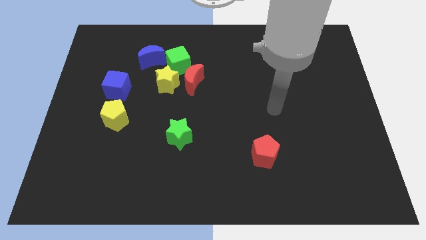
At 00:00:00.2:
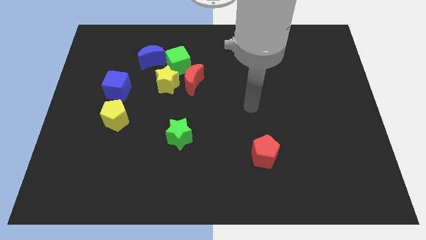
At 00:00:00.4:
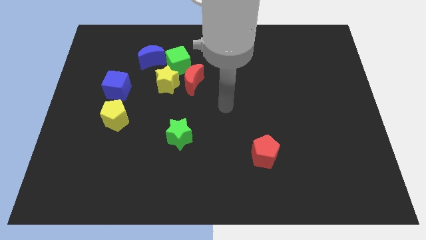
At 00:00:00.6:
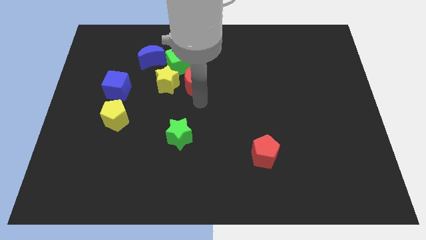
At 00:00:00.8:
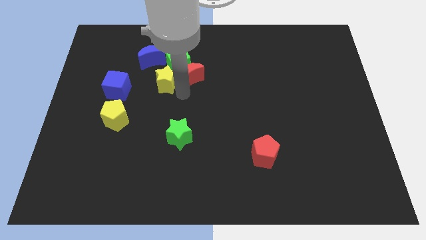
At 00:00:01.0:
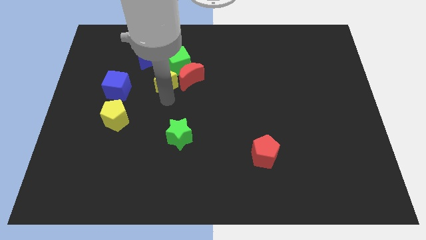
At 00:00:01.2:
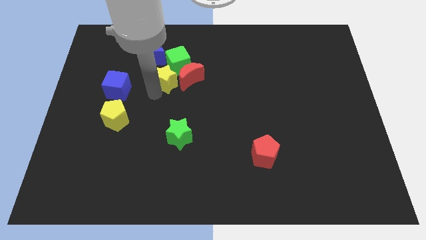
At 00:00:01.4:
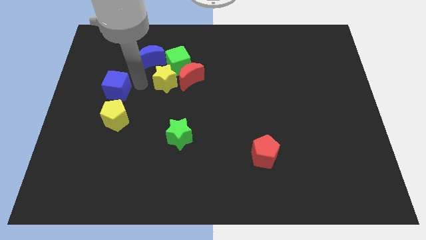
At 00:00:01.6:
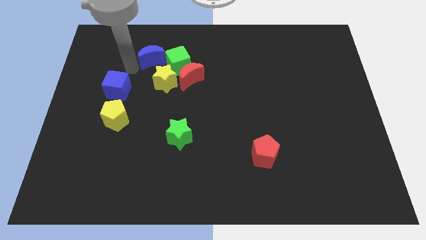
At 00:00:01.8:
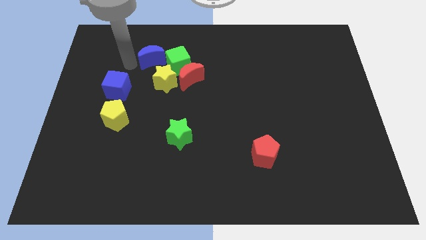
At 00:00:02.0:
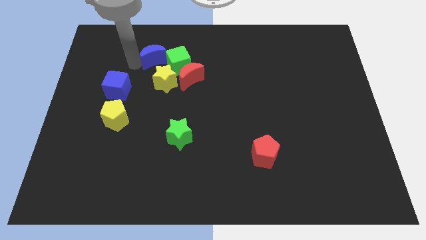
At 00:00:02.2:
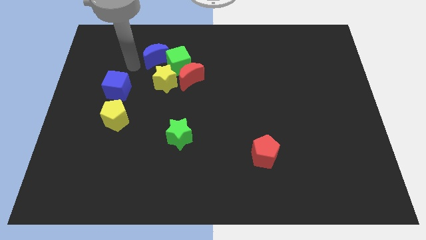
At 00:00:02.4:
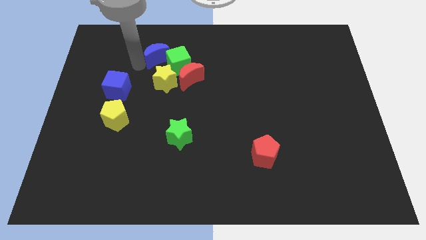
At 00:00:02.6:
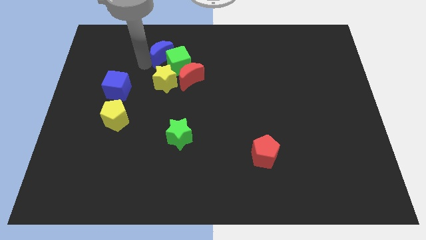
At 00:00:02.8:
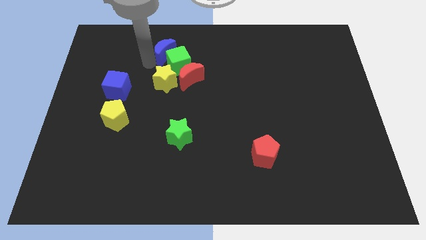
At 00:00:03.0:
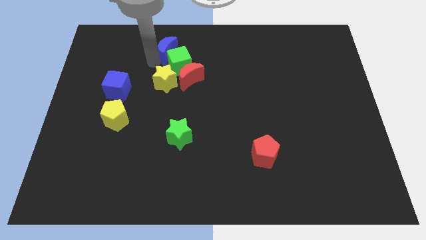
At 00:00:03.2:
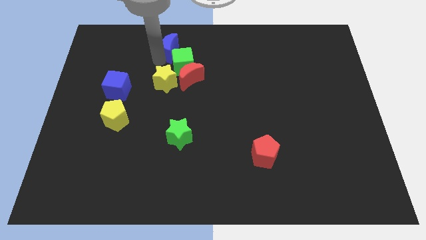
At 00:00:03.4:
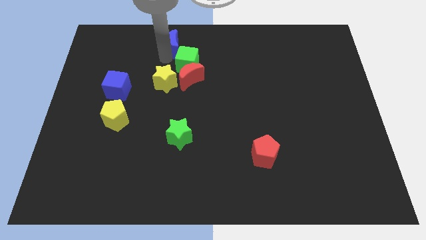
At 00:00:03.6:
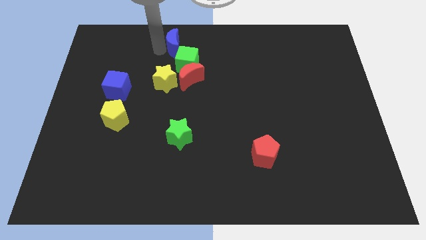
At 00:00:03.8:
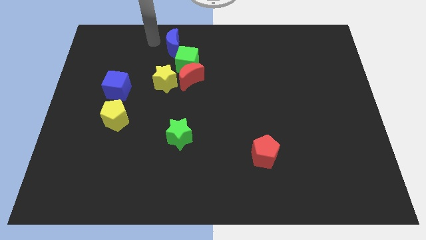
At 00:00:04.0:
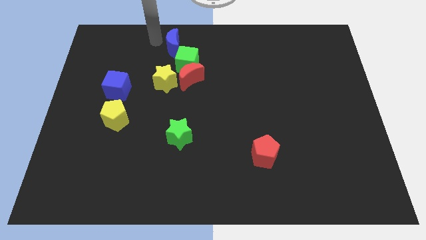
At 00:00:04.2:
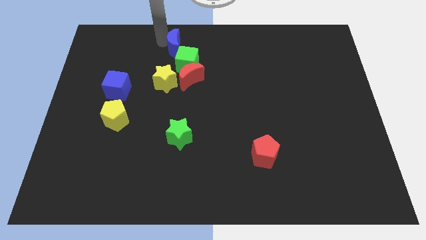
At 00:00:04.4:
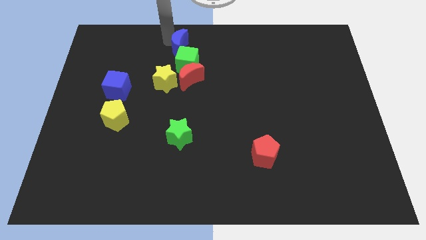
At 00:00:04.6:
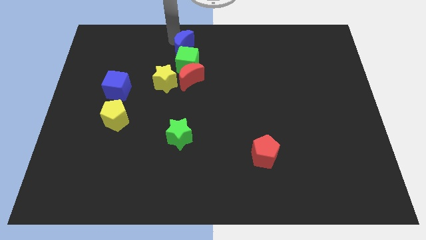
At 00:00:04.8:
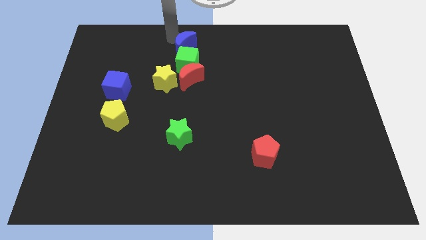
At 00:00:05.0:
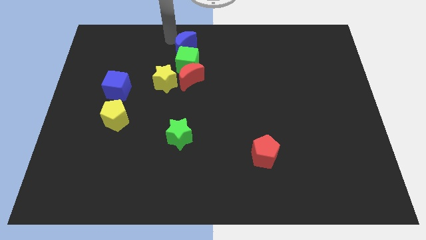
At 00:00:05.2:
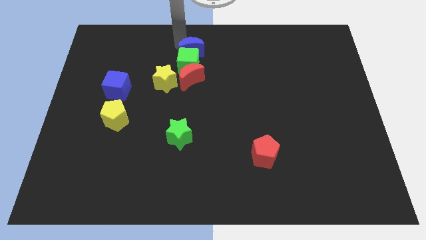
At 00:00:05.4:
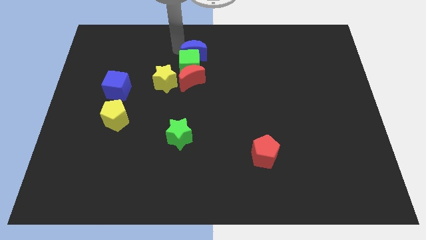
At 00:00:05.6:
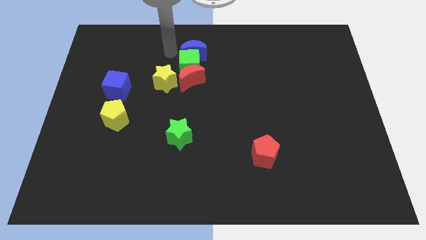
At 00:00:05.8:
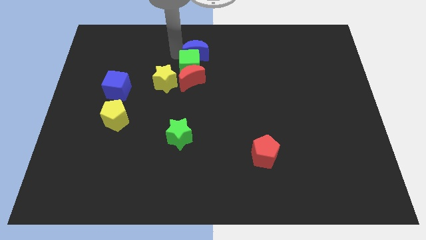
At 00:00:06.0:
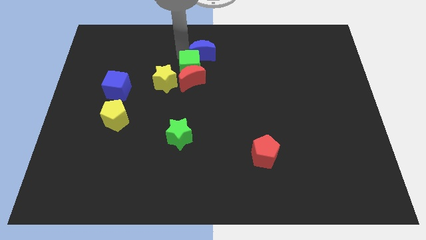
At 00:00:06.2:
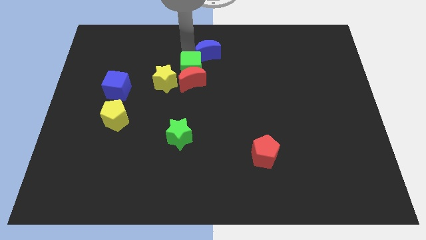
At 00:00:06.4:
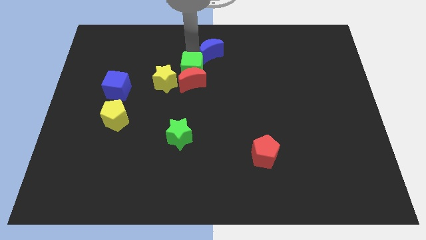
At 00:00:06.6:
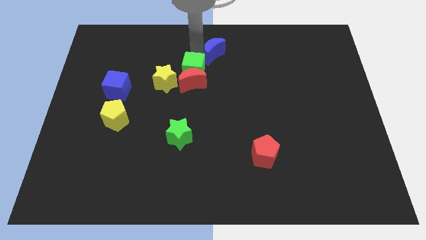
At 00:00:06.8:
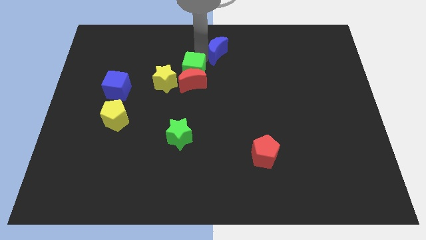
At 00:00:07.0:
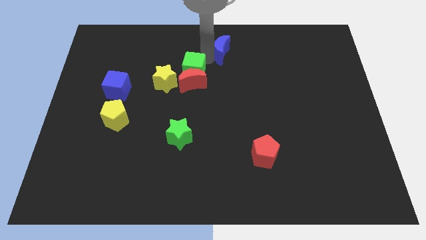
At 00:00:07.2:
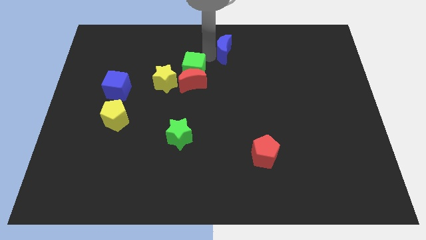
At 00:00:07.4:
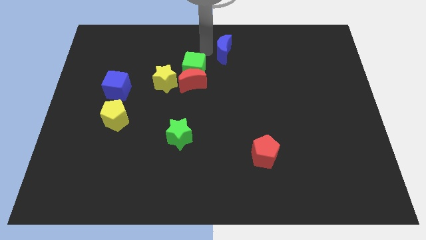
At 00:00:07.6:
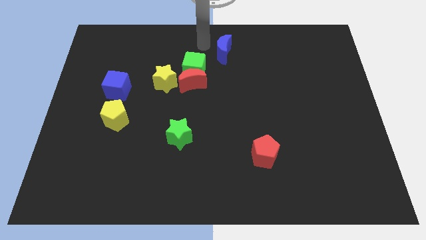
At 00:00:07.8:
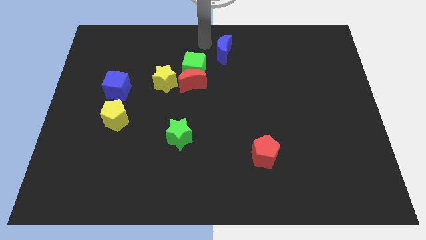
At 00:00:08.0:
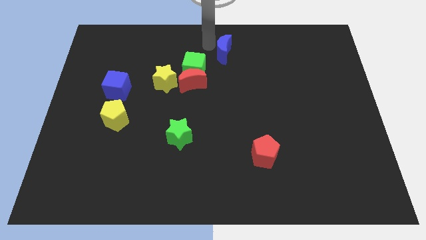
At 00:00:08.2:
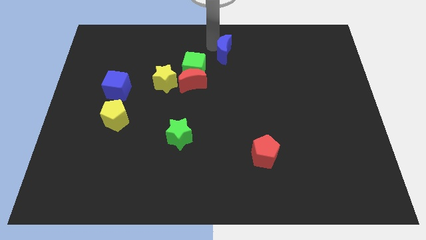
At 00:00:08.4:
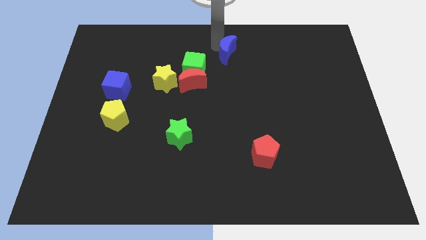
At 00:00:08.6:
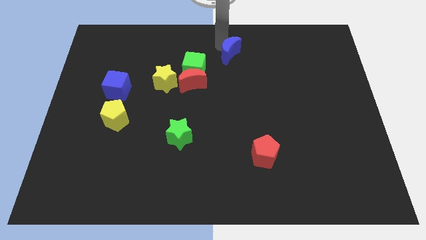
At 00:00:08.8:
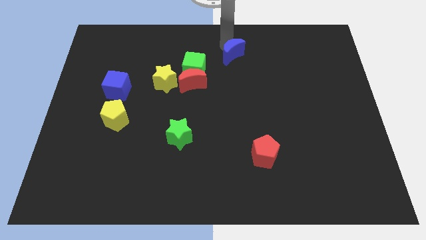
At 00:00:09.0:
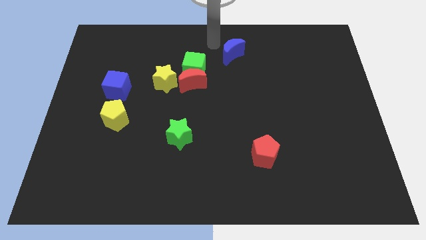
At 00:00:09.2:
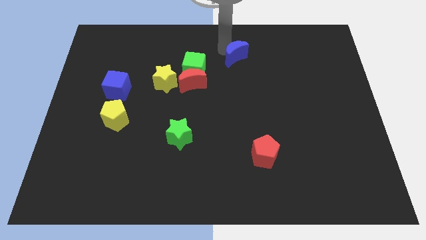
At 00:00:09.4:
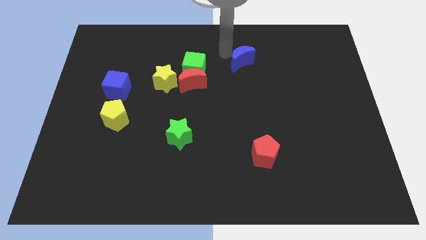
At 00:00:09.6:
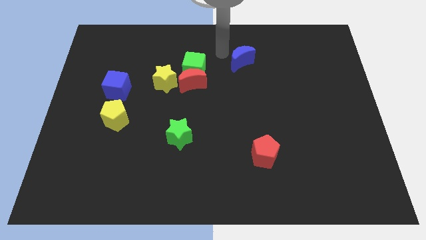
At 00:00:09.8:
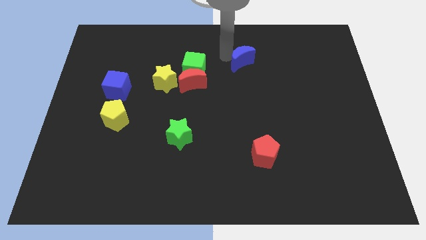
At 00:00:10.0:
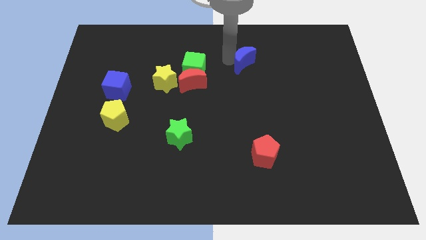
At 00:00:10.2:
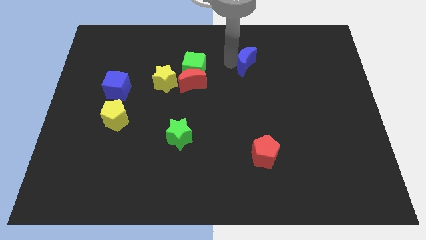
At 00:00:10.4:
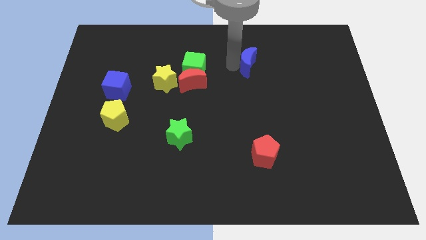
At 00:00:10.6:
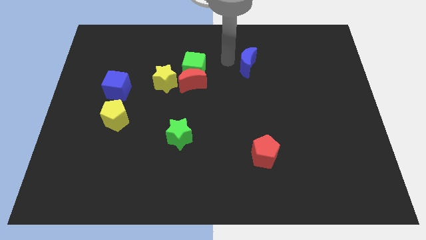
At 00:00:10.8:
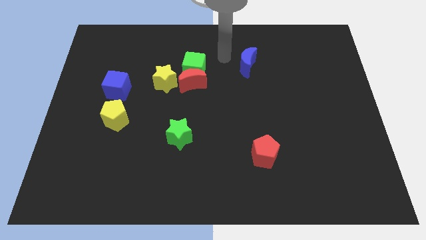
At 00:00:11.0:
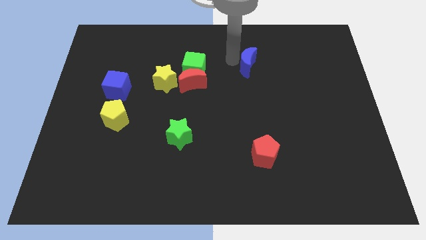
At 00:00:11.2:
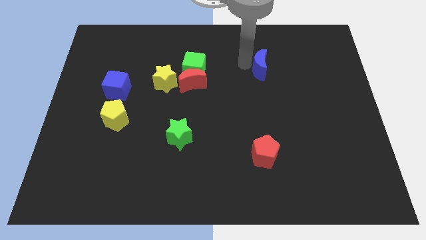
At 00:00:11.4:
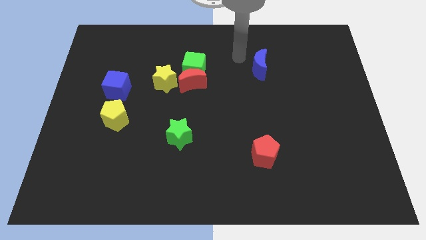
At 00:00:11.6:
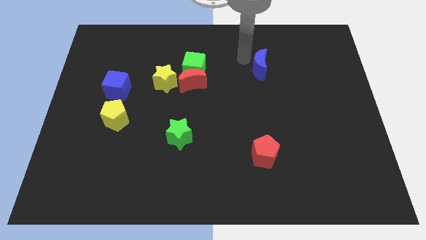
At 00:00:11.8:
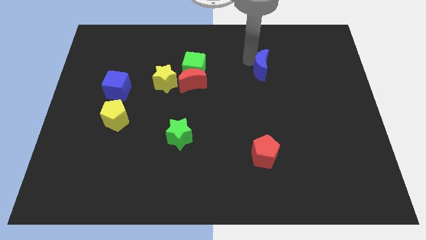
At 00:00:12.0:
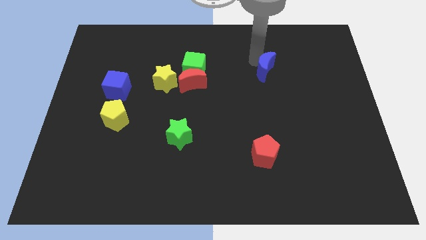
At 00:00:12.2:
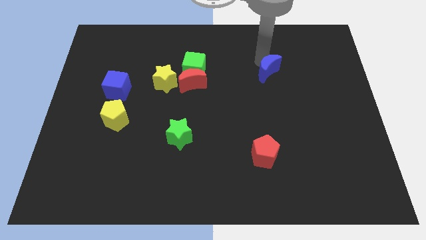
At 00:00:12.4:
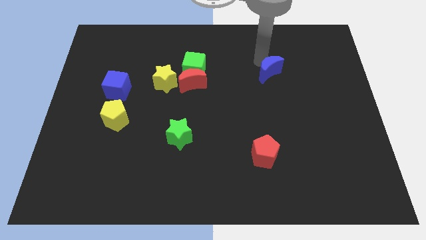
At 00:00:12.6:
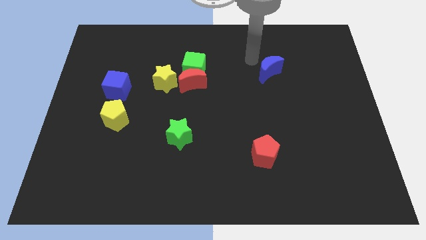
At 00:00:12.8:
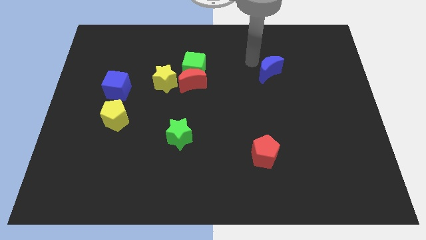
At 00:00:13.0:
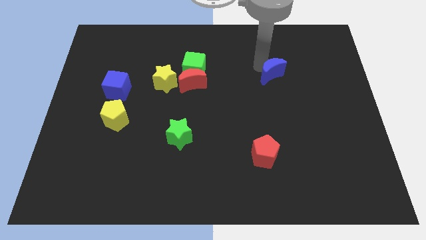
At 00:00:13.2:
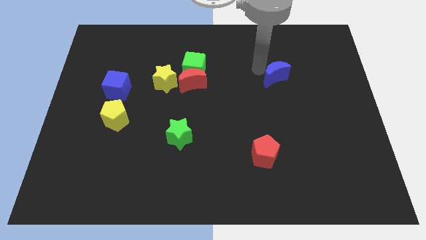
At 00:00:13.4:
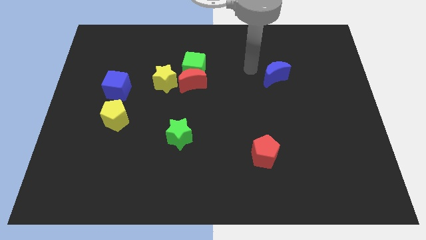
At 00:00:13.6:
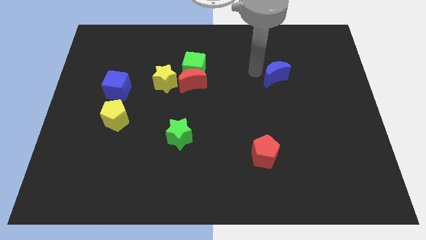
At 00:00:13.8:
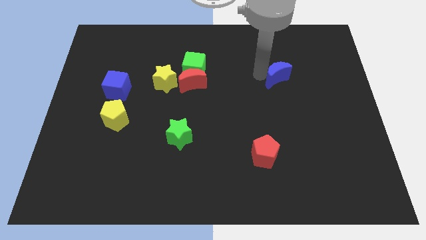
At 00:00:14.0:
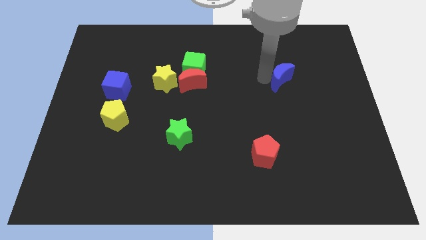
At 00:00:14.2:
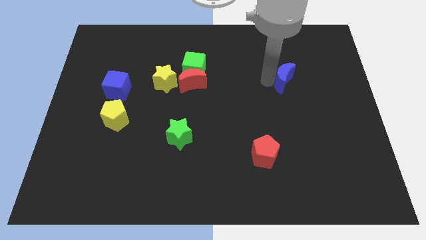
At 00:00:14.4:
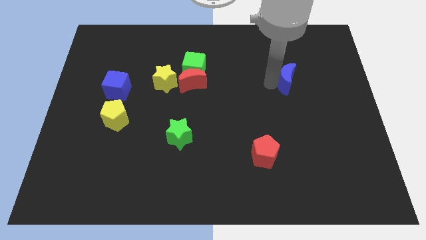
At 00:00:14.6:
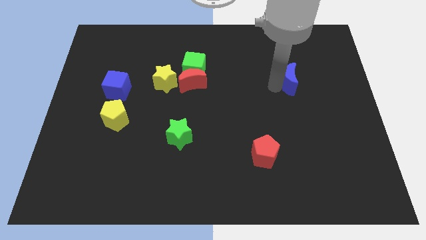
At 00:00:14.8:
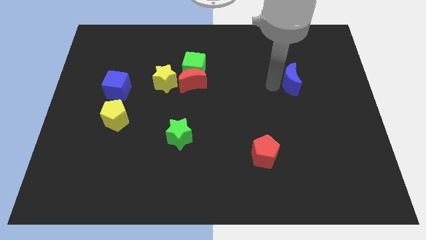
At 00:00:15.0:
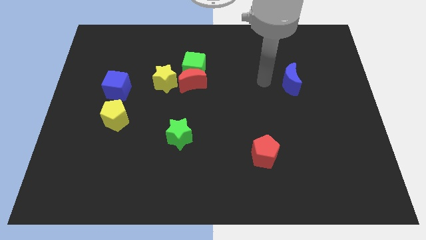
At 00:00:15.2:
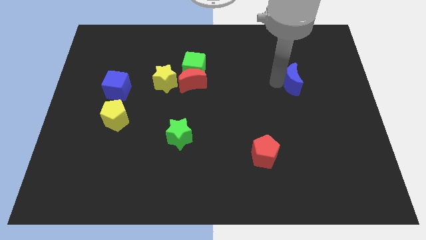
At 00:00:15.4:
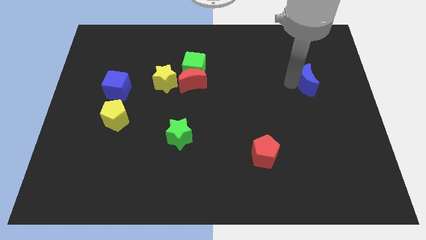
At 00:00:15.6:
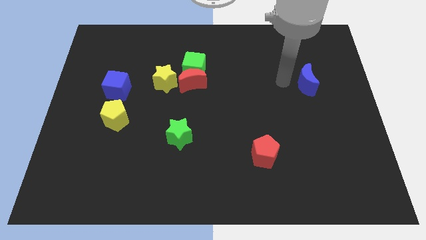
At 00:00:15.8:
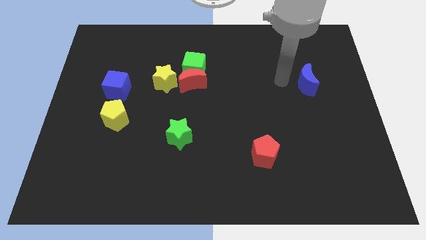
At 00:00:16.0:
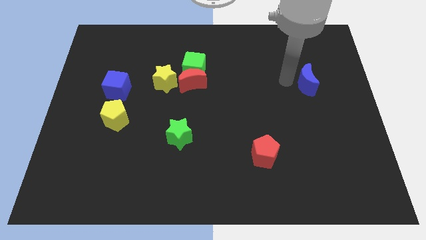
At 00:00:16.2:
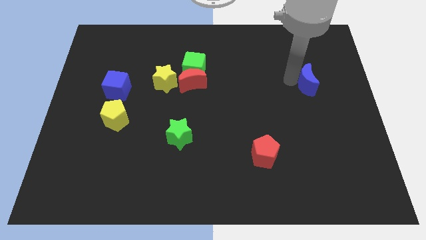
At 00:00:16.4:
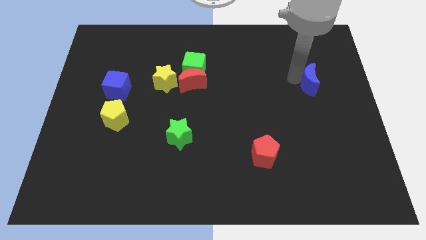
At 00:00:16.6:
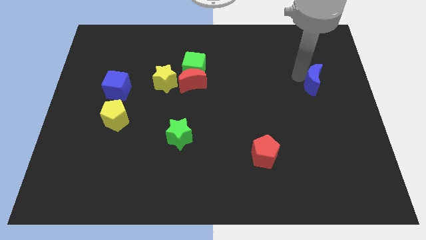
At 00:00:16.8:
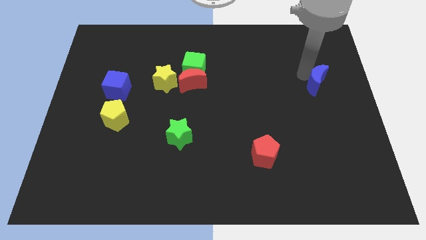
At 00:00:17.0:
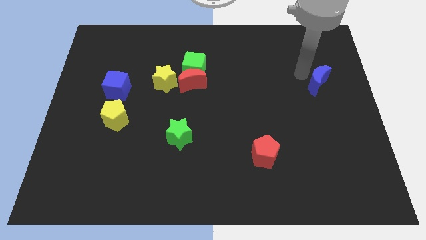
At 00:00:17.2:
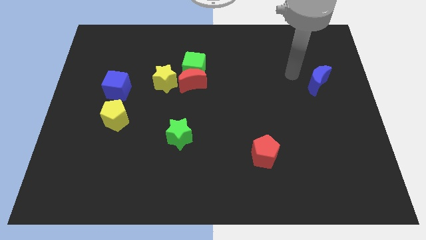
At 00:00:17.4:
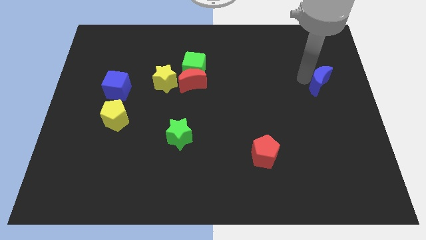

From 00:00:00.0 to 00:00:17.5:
move the blue moon to the center right
